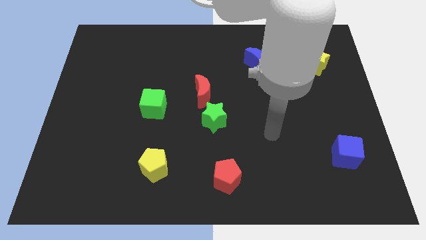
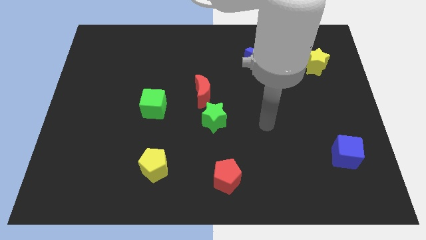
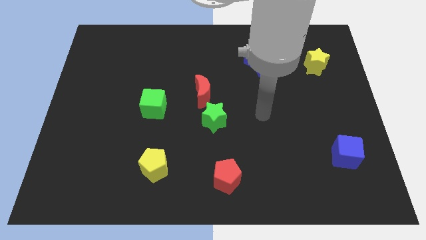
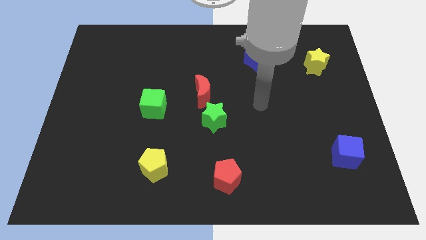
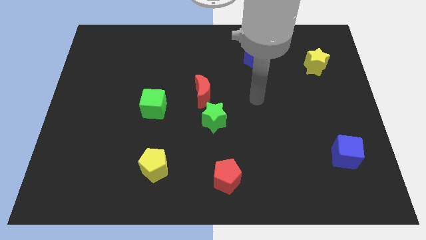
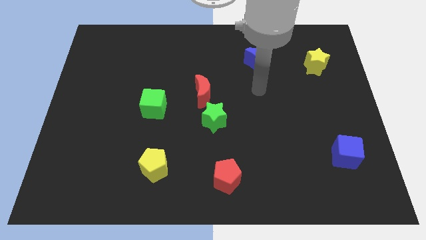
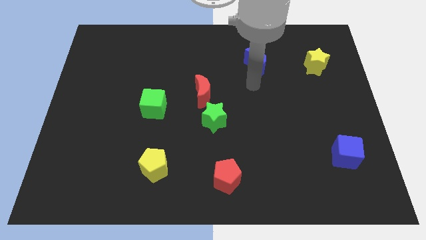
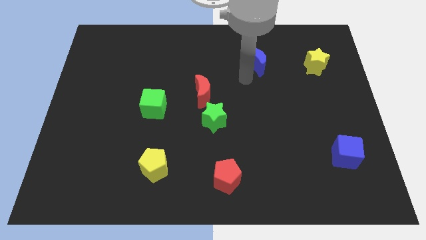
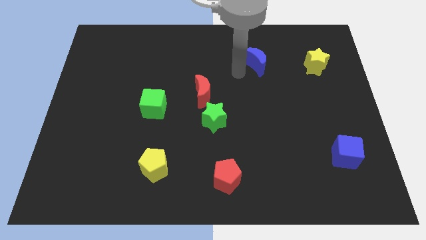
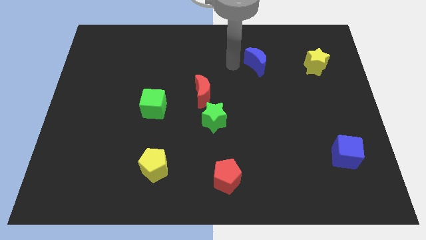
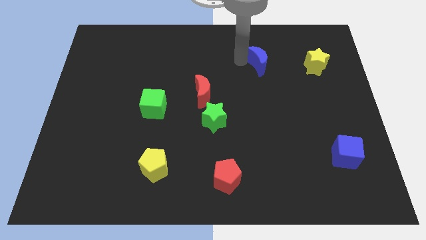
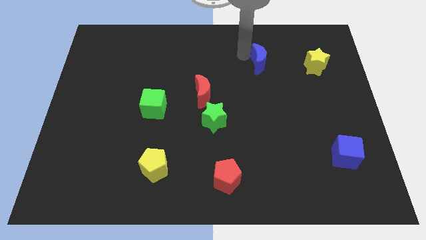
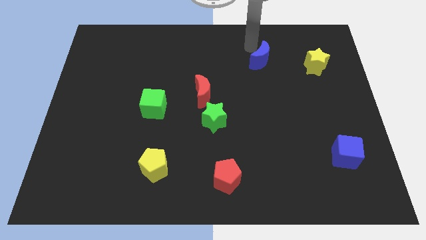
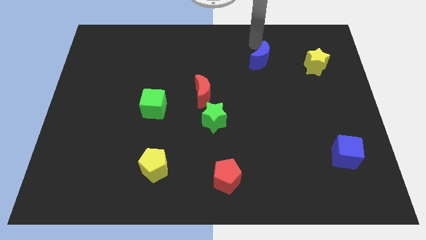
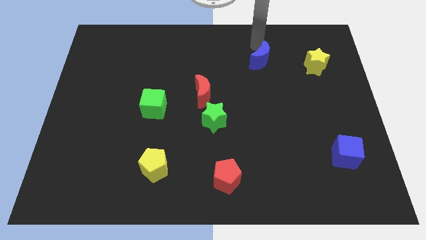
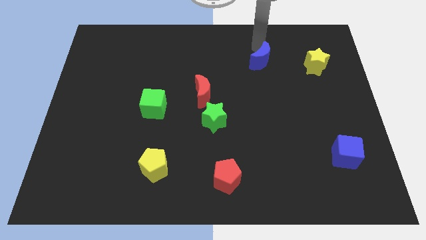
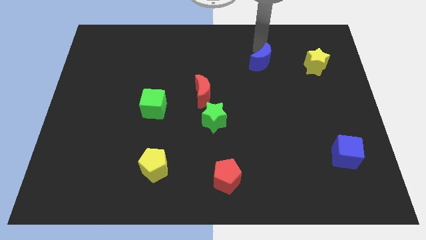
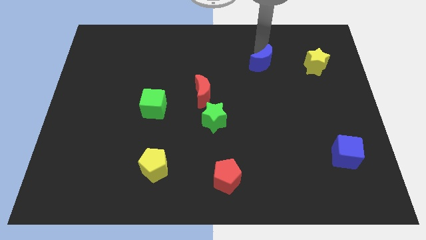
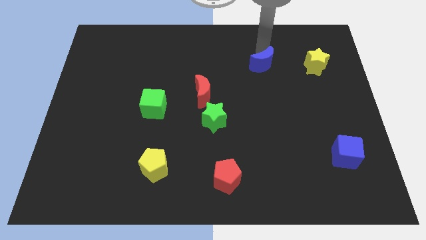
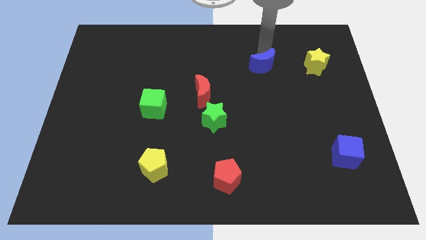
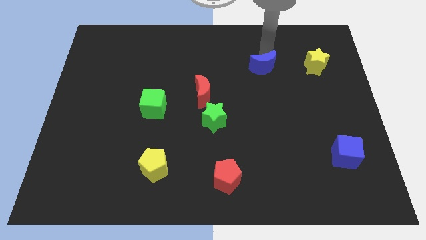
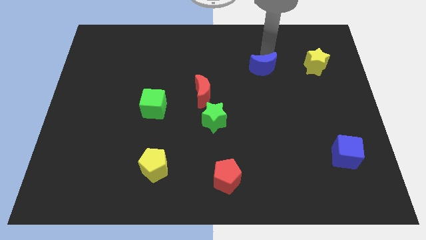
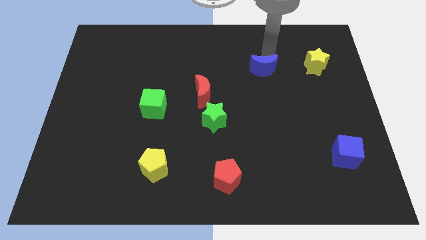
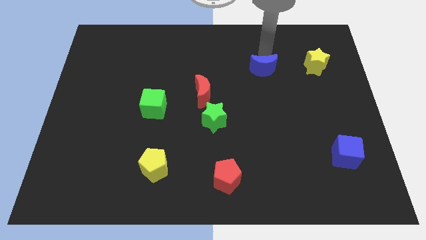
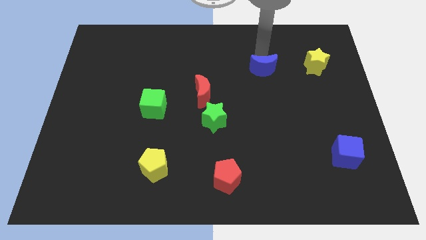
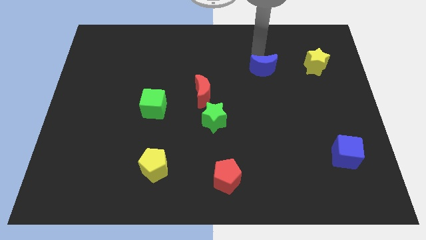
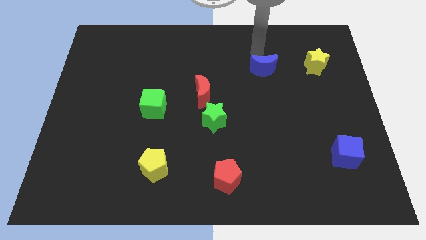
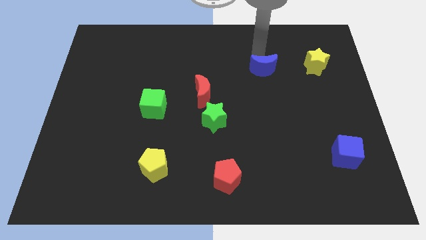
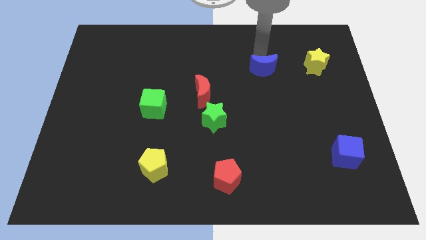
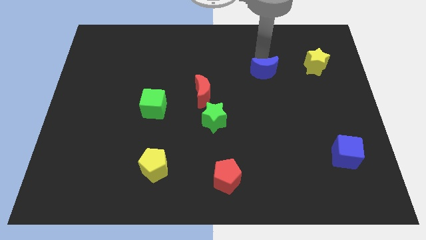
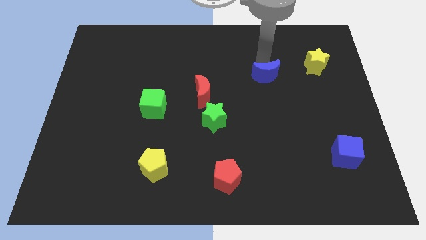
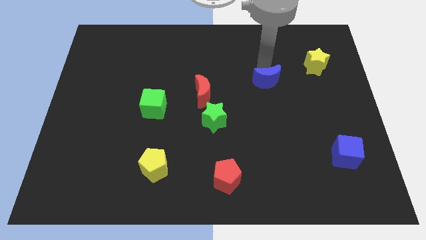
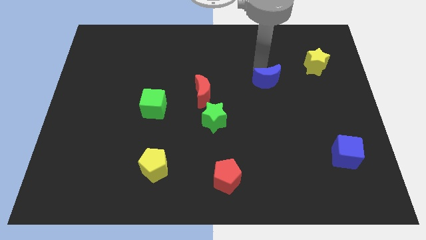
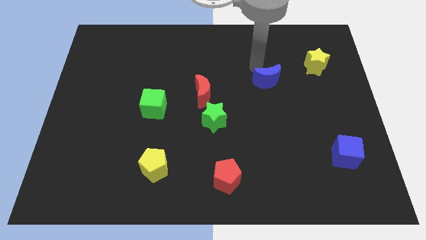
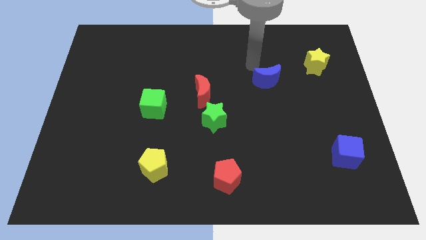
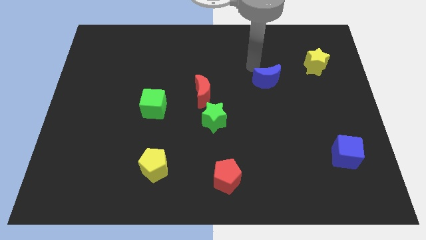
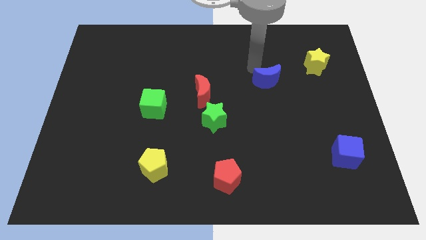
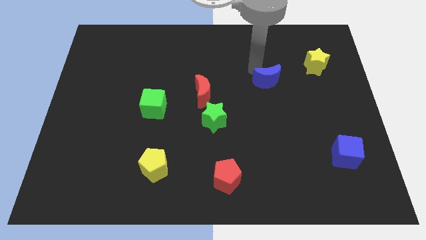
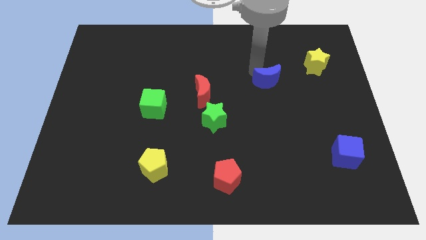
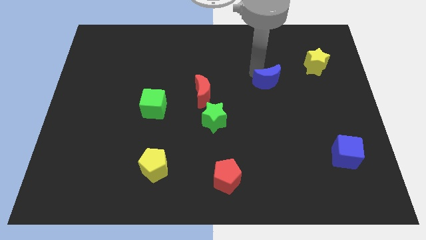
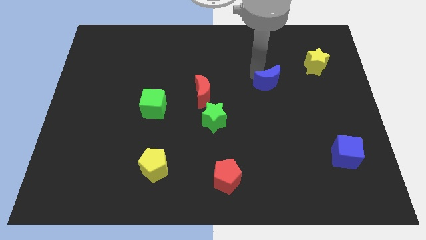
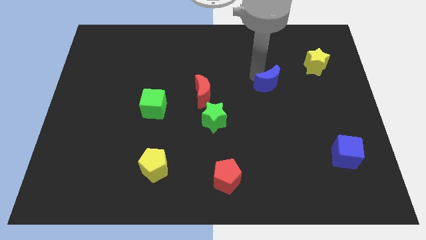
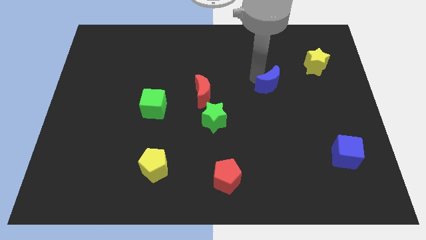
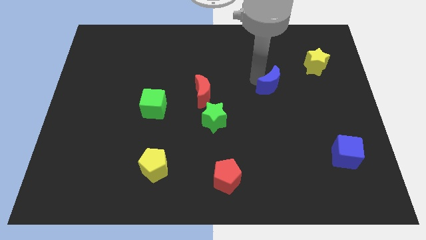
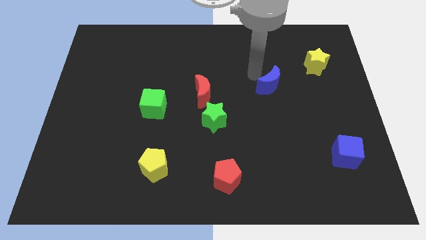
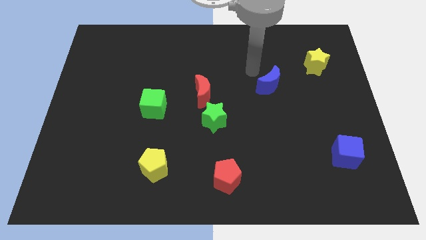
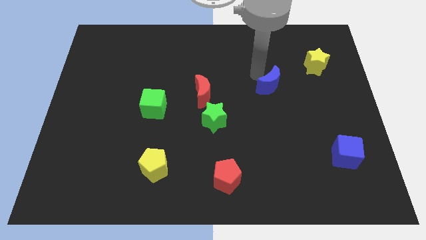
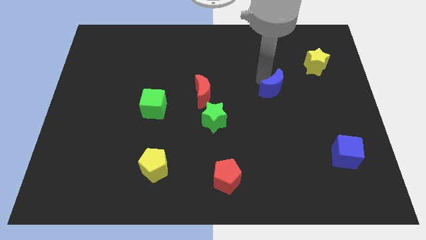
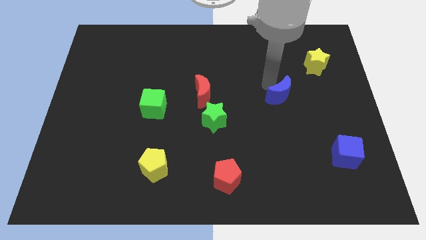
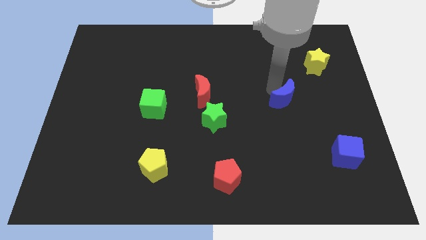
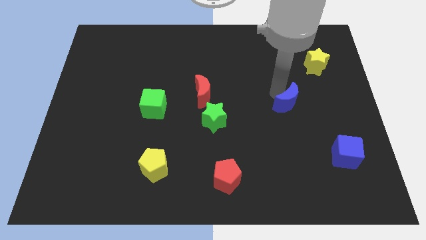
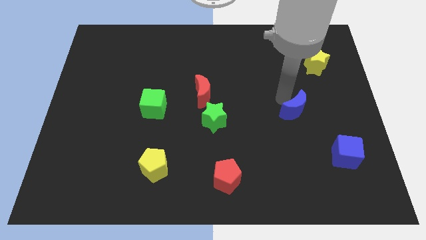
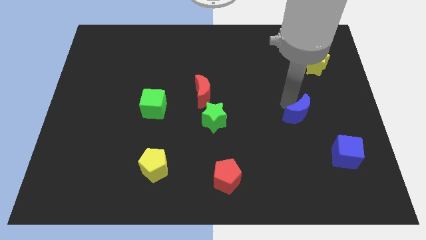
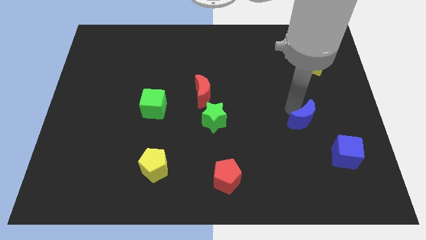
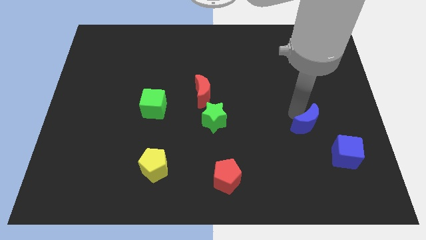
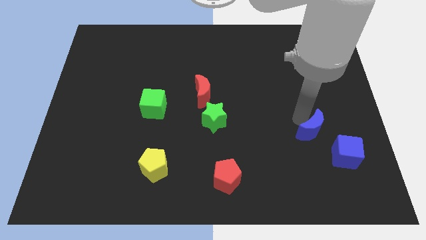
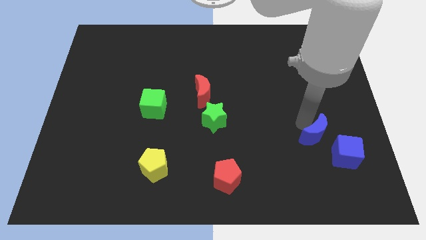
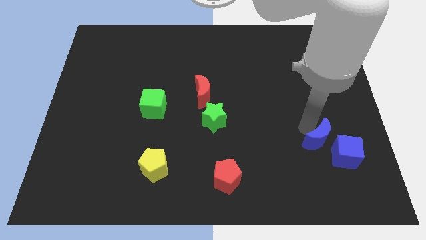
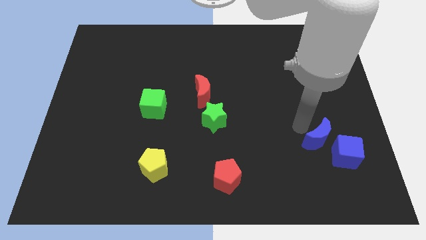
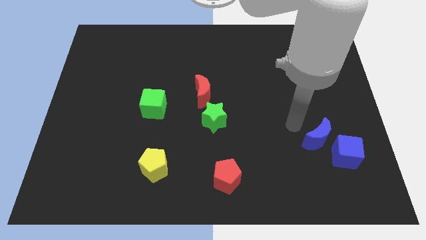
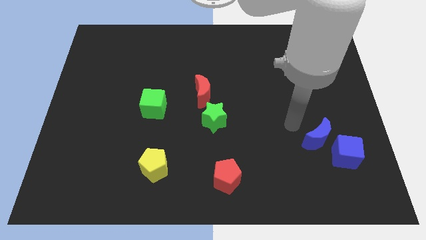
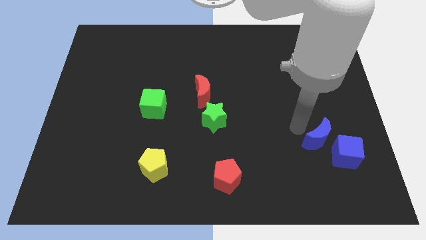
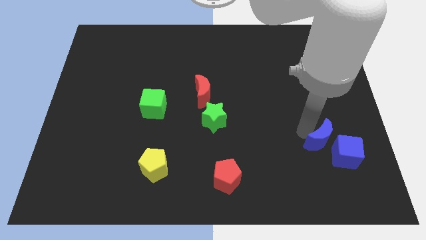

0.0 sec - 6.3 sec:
push the blue moon next to the blue cube
